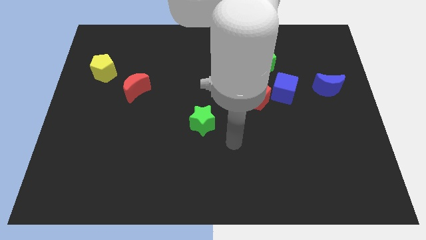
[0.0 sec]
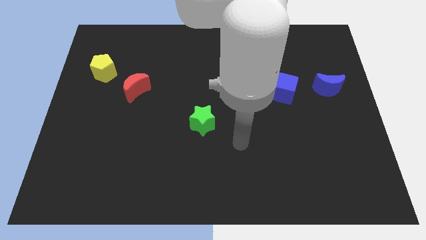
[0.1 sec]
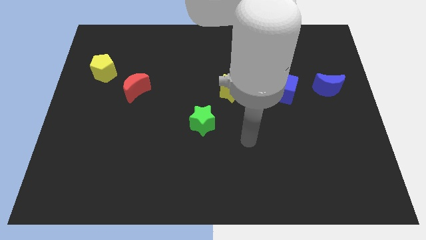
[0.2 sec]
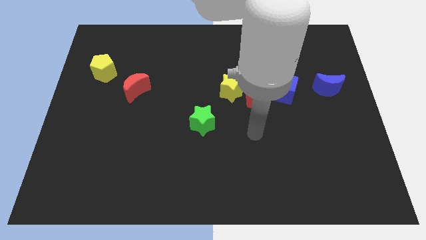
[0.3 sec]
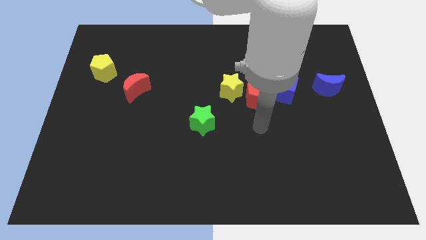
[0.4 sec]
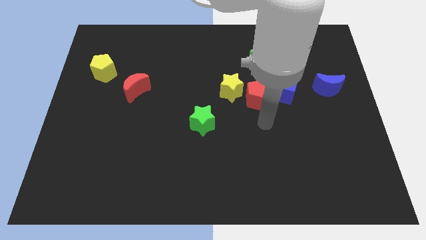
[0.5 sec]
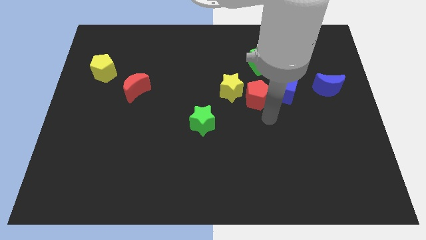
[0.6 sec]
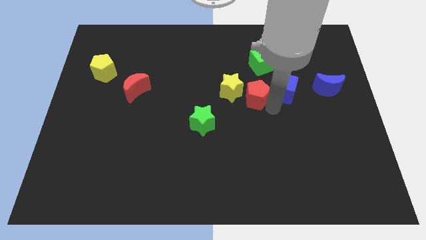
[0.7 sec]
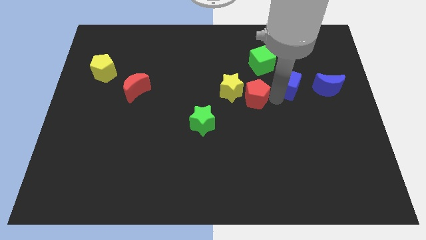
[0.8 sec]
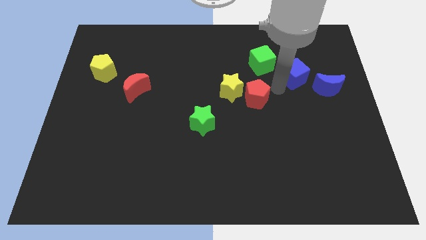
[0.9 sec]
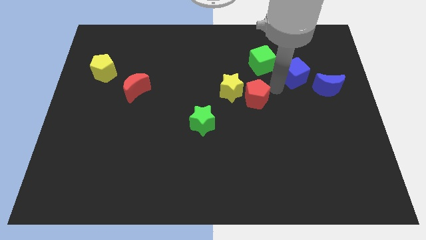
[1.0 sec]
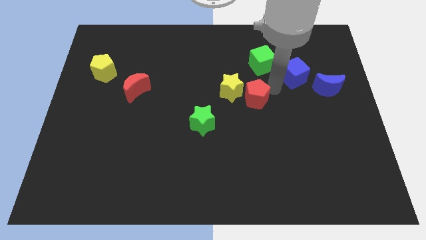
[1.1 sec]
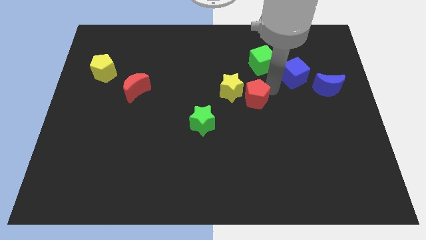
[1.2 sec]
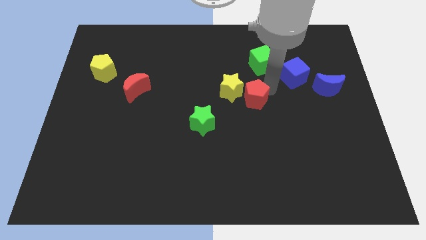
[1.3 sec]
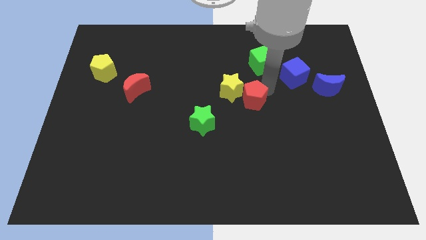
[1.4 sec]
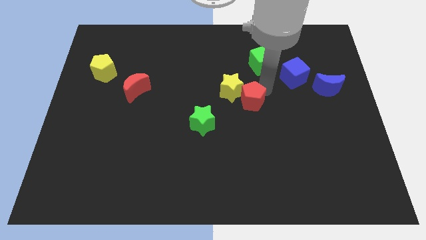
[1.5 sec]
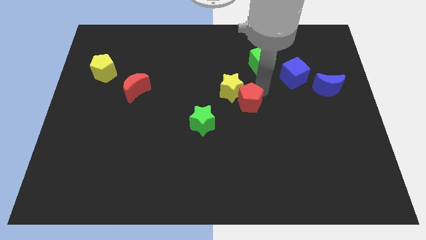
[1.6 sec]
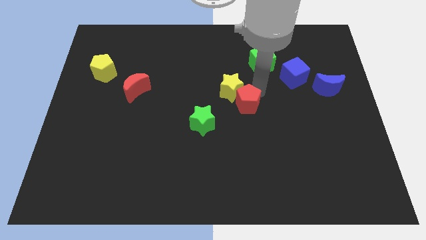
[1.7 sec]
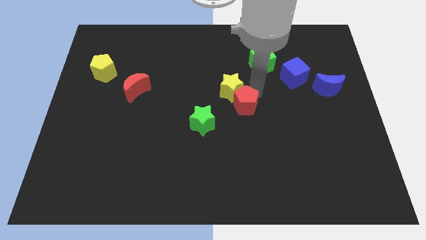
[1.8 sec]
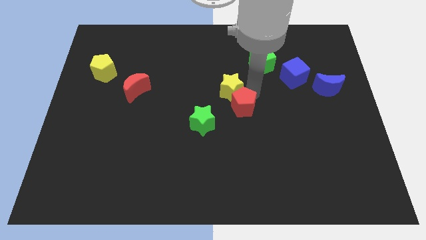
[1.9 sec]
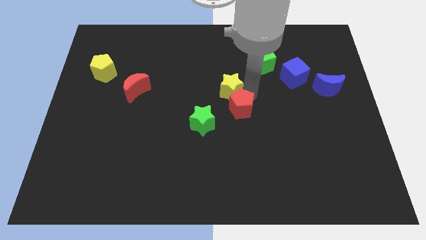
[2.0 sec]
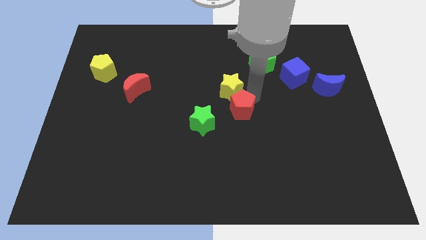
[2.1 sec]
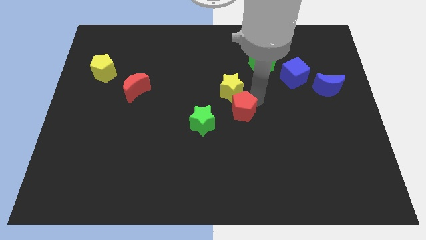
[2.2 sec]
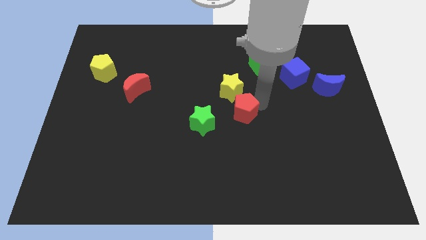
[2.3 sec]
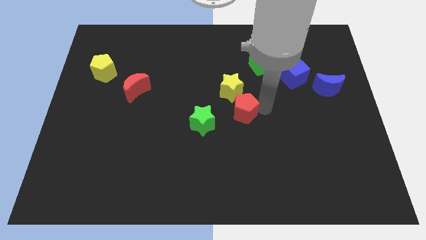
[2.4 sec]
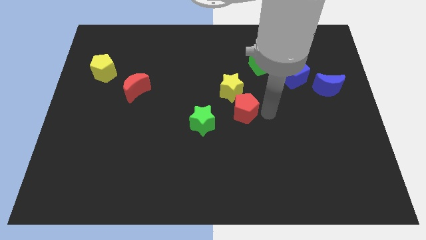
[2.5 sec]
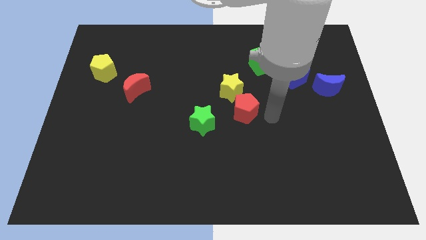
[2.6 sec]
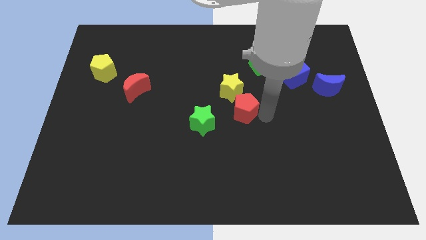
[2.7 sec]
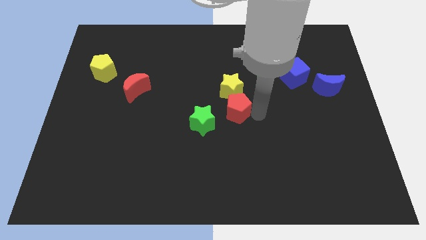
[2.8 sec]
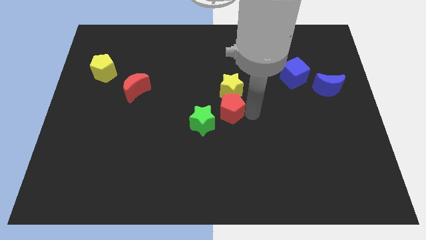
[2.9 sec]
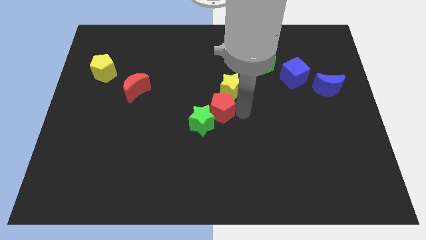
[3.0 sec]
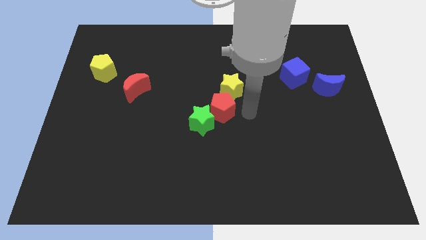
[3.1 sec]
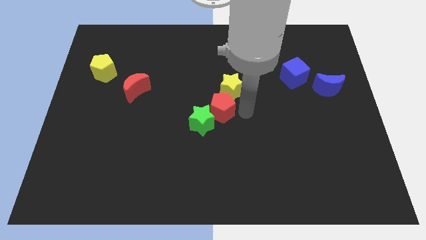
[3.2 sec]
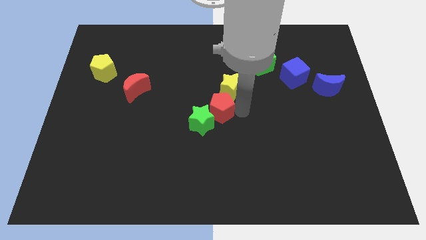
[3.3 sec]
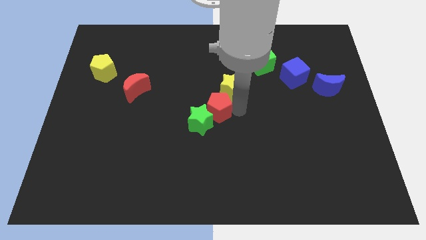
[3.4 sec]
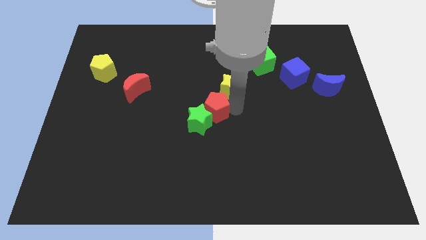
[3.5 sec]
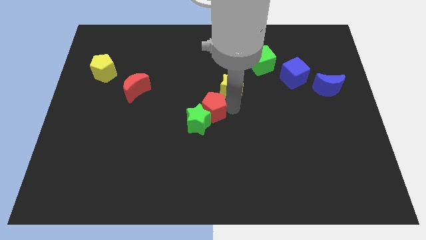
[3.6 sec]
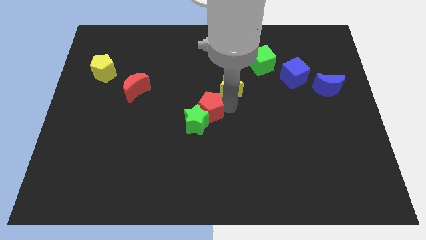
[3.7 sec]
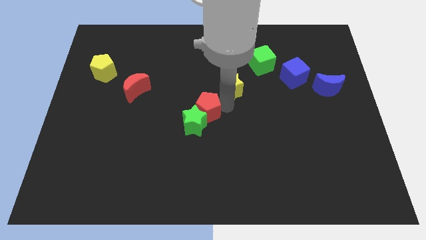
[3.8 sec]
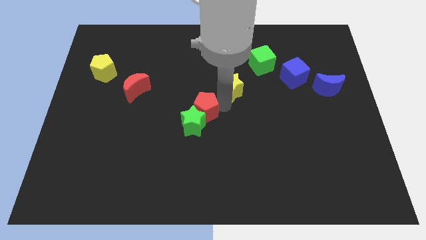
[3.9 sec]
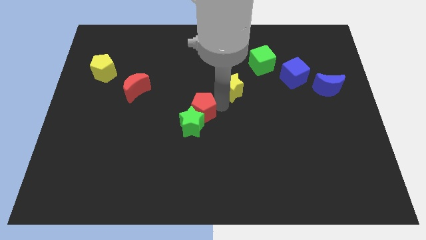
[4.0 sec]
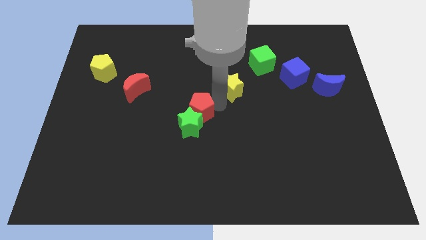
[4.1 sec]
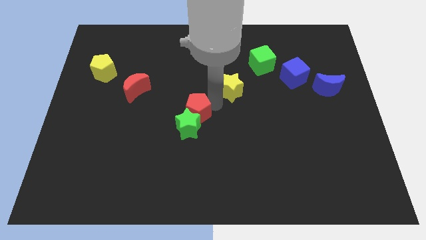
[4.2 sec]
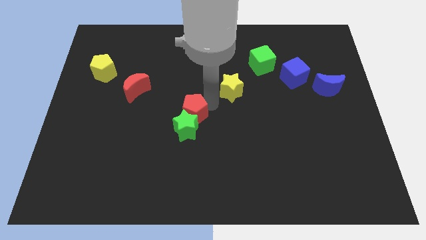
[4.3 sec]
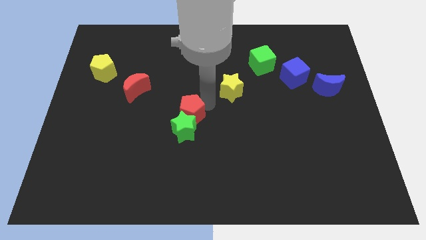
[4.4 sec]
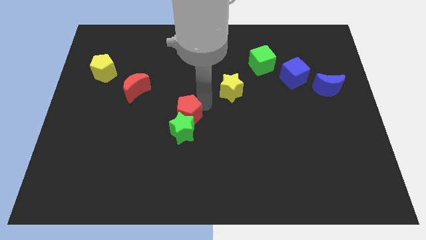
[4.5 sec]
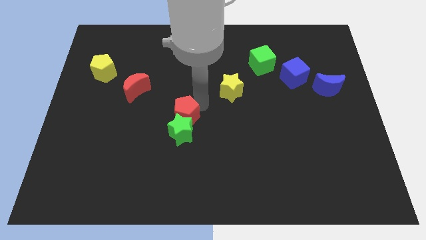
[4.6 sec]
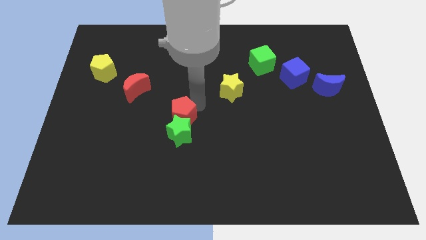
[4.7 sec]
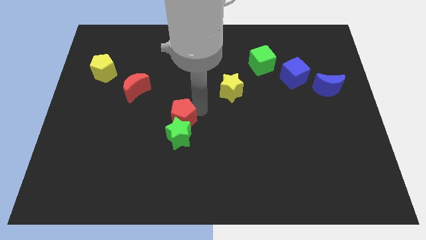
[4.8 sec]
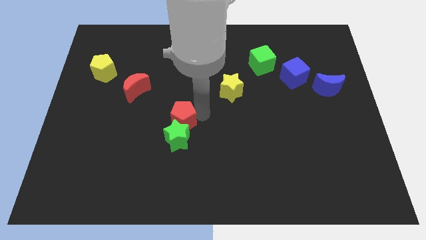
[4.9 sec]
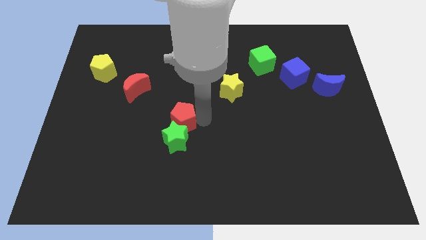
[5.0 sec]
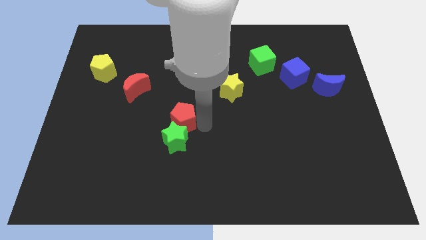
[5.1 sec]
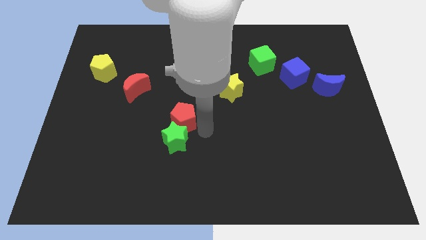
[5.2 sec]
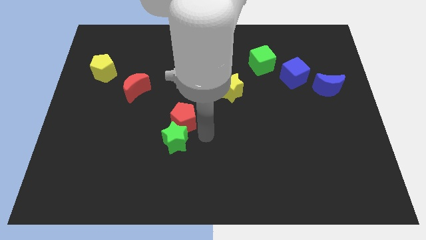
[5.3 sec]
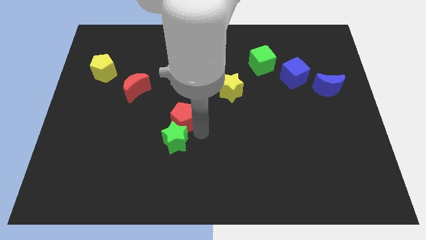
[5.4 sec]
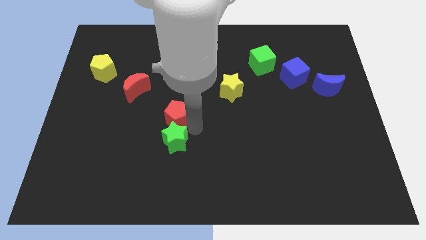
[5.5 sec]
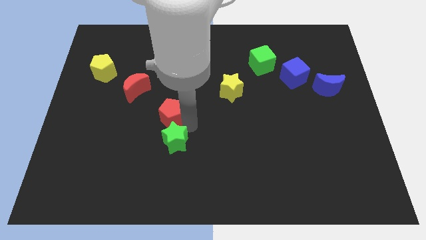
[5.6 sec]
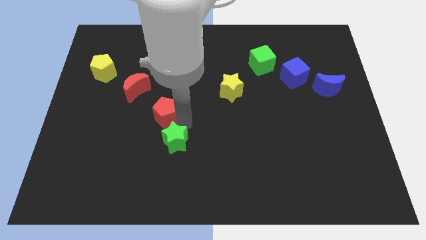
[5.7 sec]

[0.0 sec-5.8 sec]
push the red pentagon to the left

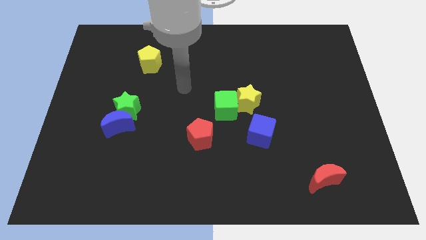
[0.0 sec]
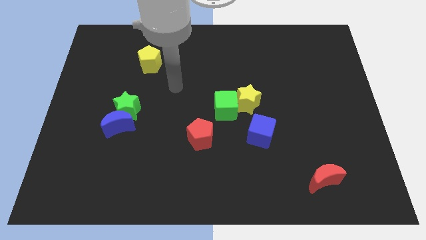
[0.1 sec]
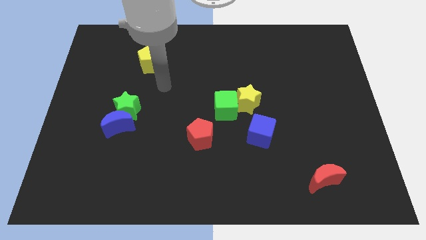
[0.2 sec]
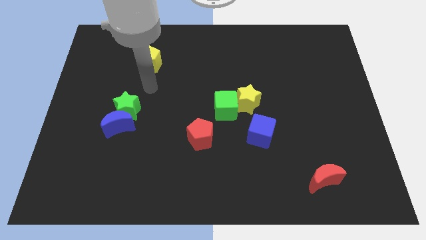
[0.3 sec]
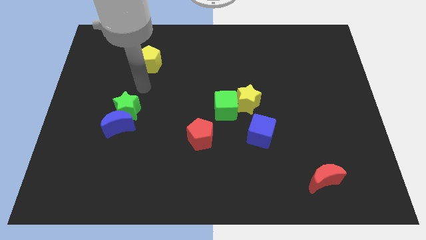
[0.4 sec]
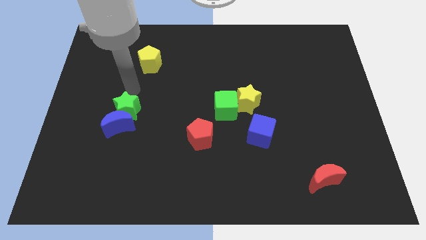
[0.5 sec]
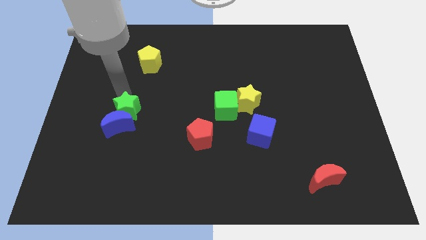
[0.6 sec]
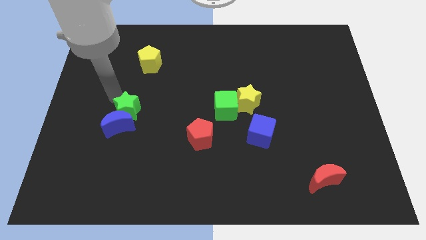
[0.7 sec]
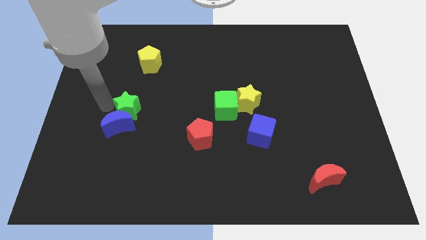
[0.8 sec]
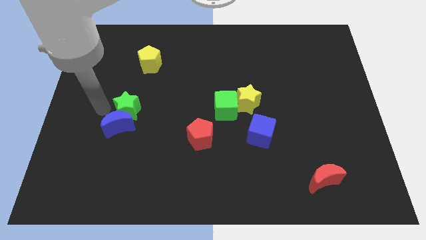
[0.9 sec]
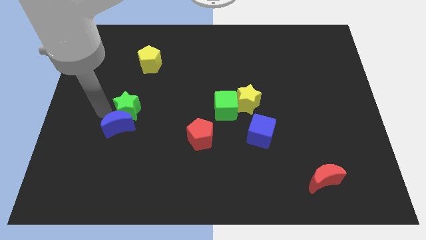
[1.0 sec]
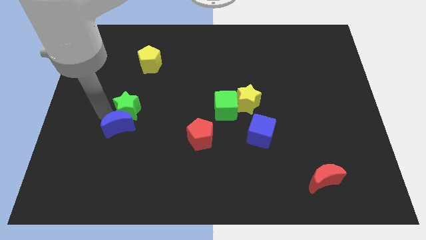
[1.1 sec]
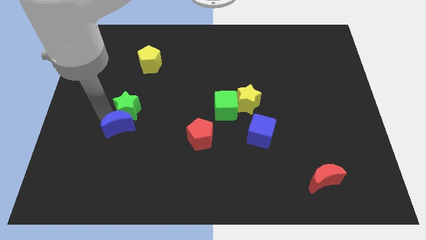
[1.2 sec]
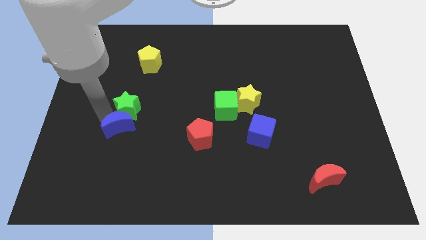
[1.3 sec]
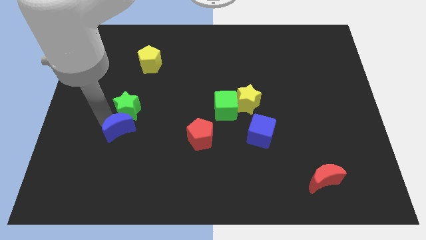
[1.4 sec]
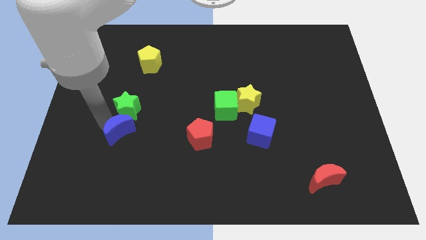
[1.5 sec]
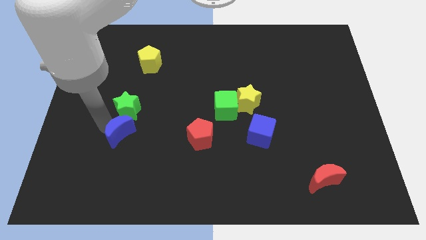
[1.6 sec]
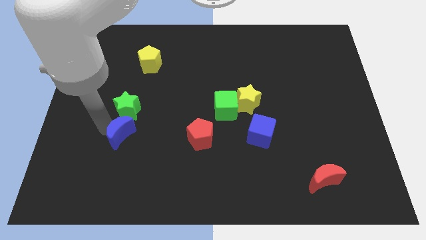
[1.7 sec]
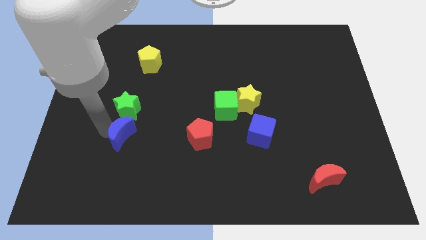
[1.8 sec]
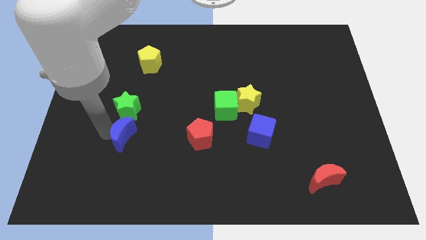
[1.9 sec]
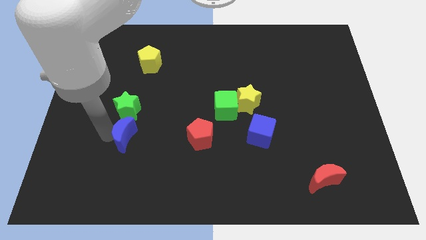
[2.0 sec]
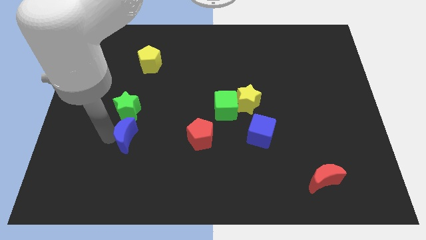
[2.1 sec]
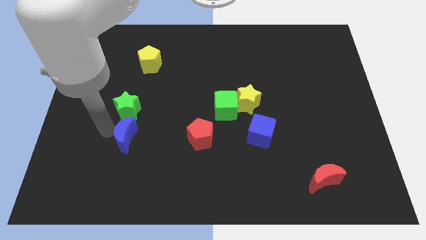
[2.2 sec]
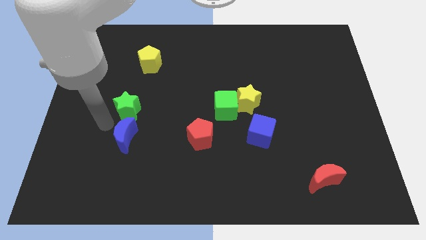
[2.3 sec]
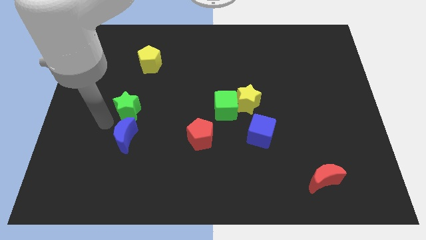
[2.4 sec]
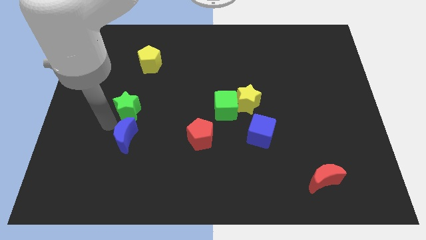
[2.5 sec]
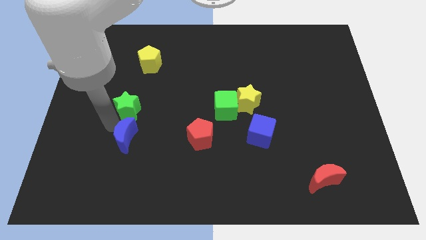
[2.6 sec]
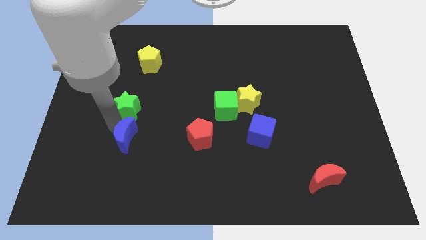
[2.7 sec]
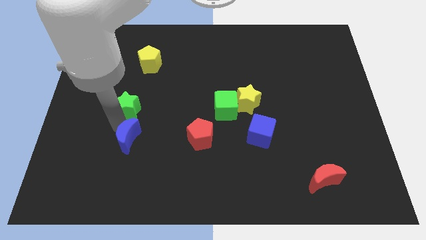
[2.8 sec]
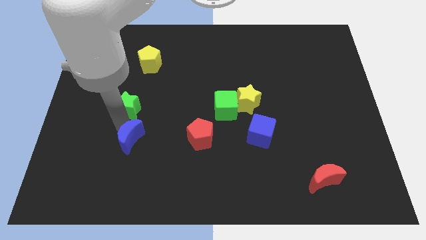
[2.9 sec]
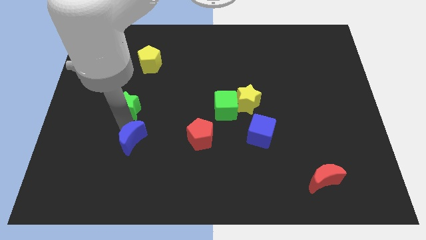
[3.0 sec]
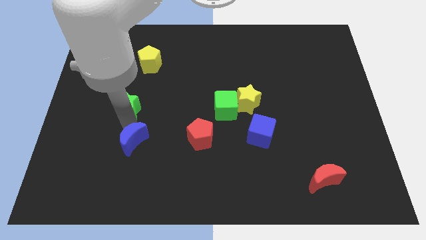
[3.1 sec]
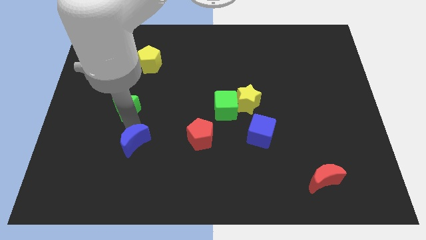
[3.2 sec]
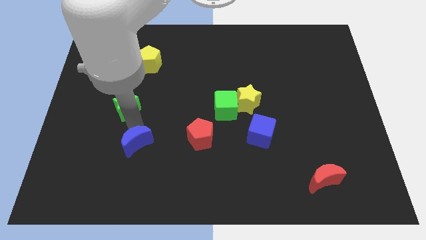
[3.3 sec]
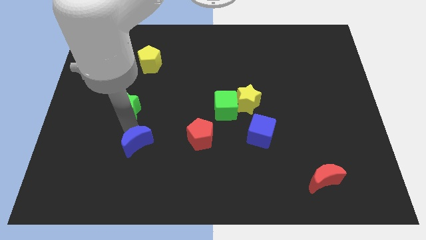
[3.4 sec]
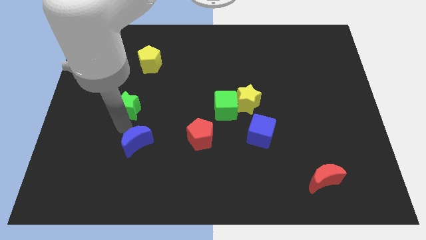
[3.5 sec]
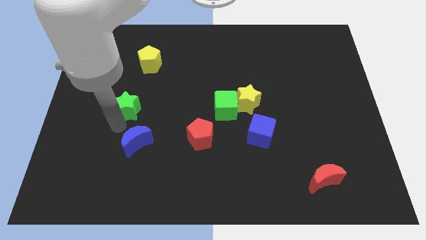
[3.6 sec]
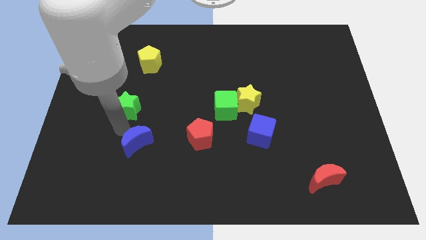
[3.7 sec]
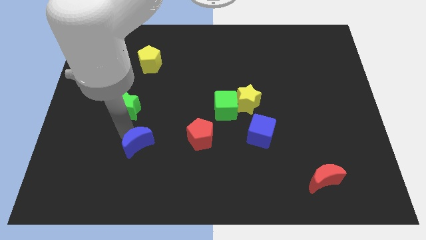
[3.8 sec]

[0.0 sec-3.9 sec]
slightly slide the blue moon down and then to the right
